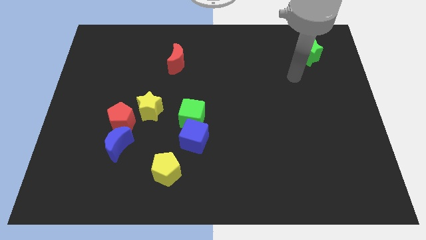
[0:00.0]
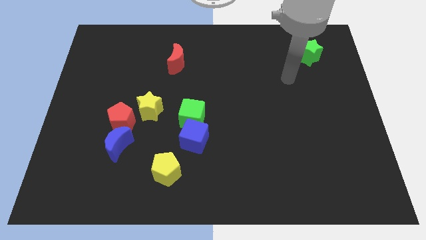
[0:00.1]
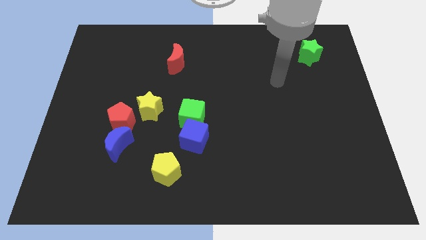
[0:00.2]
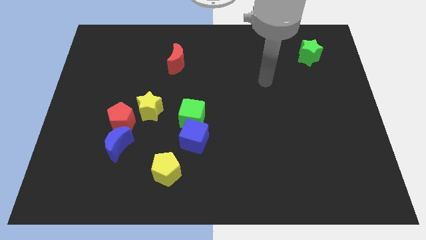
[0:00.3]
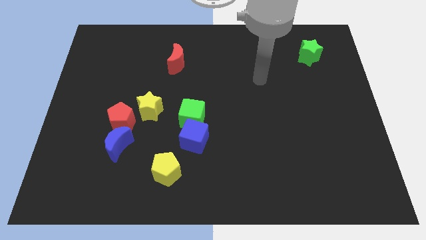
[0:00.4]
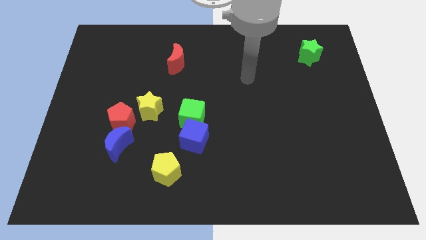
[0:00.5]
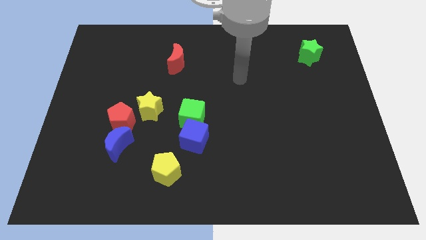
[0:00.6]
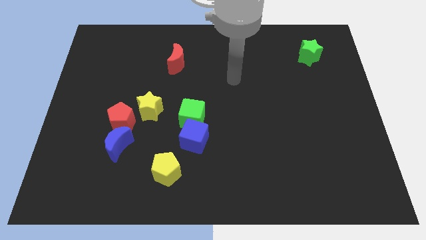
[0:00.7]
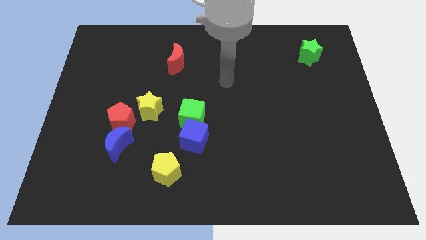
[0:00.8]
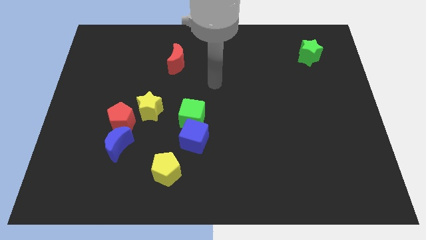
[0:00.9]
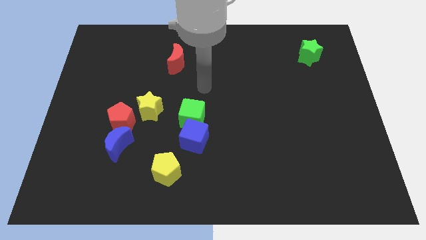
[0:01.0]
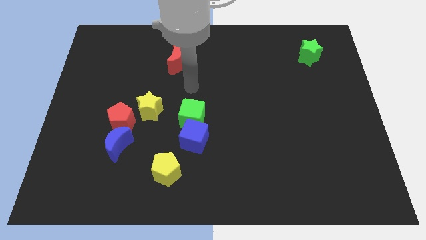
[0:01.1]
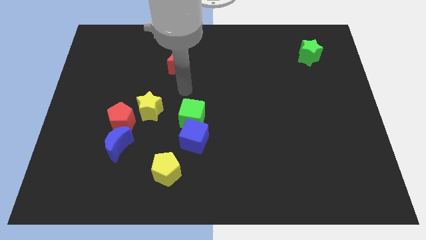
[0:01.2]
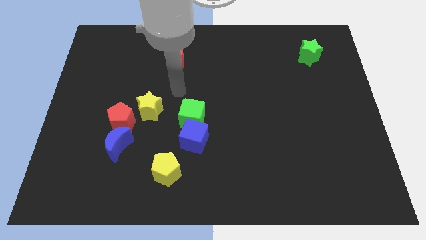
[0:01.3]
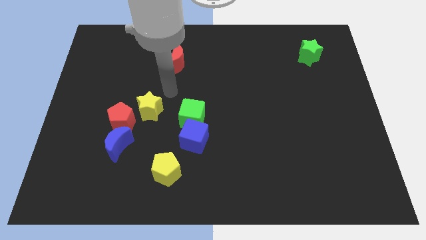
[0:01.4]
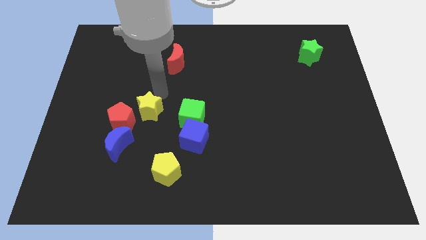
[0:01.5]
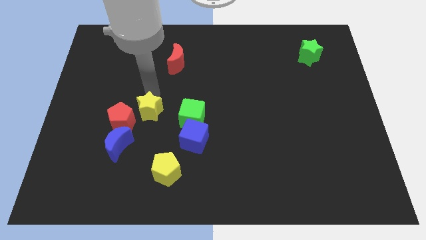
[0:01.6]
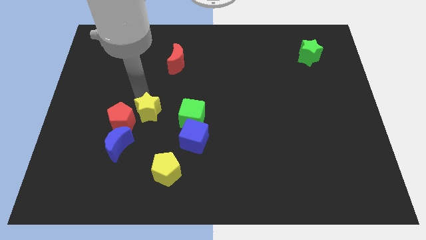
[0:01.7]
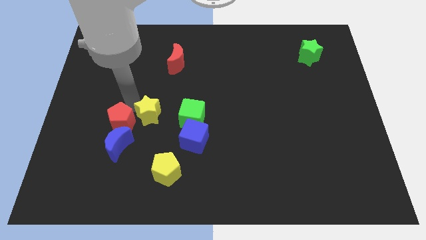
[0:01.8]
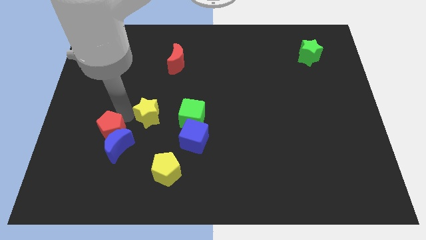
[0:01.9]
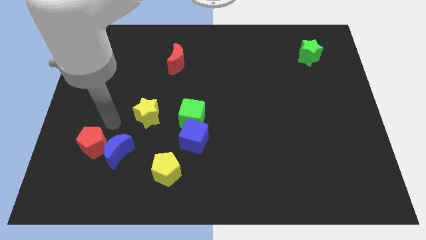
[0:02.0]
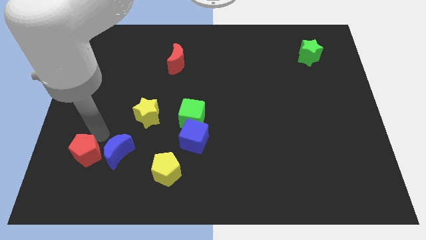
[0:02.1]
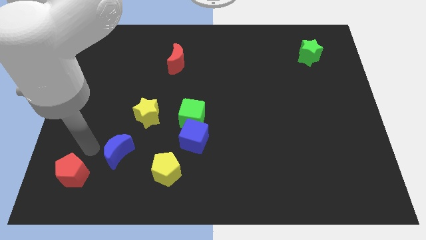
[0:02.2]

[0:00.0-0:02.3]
separate the blue moon from the red pentagon

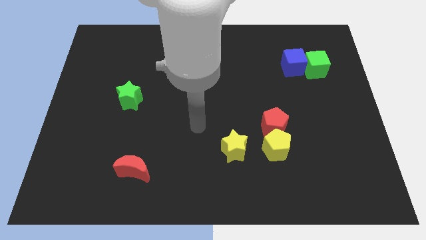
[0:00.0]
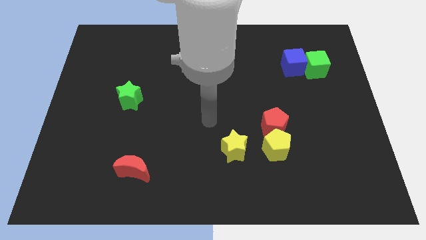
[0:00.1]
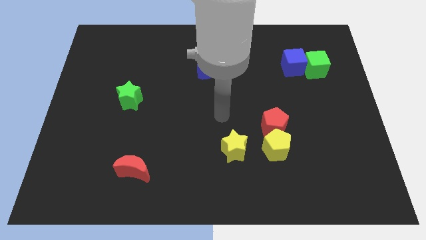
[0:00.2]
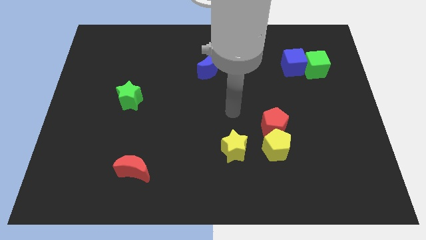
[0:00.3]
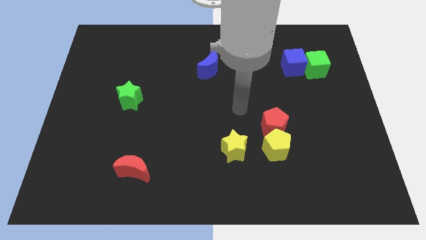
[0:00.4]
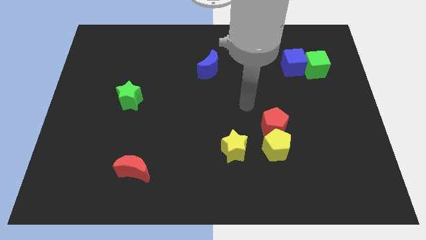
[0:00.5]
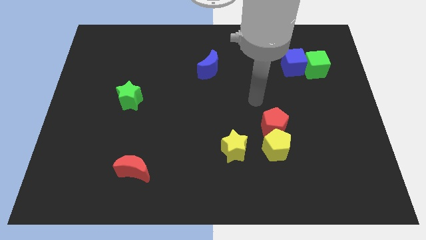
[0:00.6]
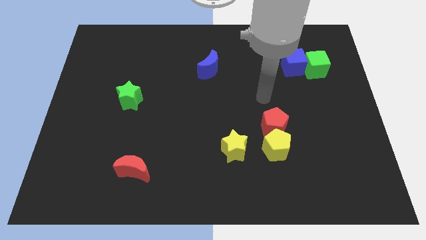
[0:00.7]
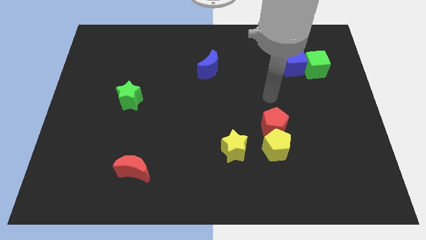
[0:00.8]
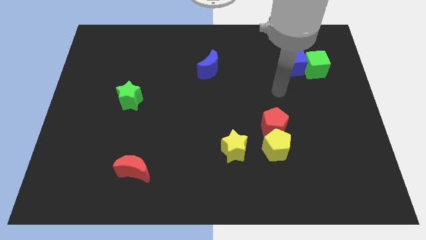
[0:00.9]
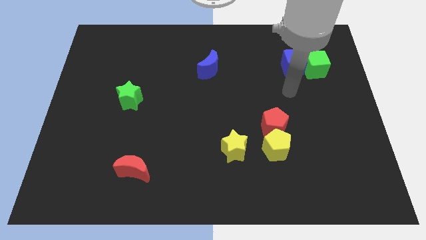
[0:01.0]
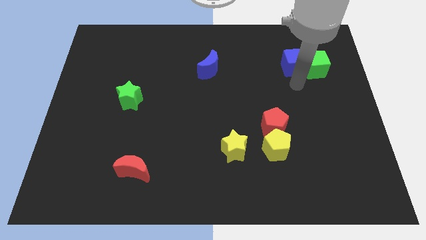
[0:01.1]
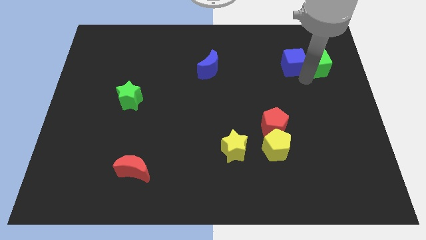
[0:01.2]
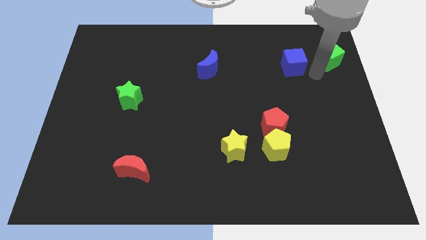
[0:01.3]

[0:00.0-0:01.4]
pull the blue cube apart from the green cube

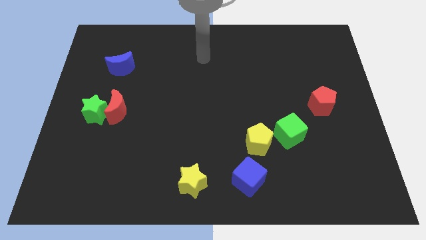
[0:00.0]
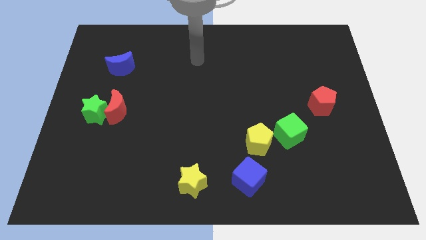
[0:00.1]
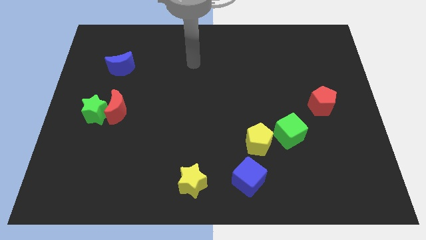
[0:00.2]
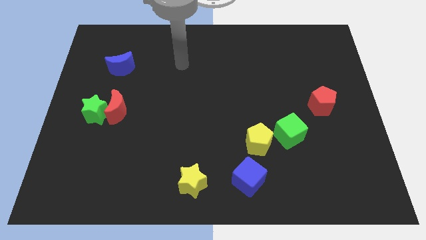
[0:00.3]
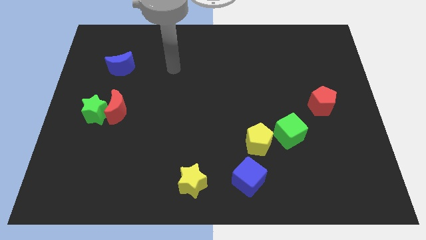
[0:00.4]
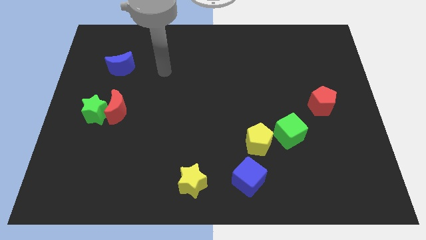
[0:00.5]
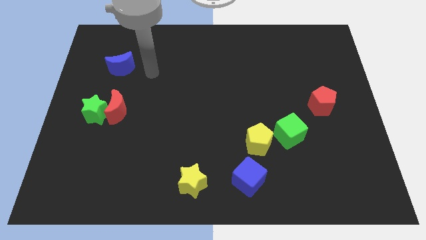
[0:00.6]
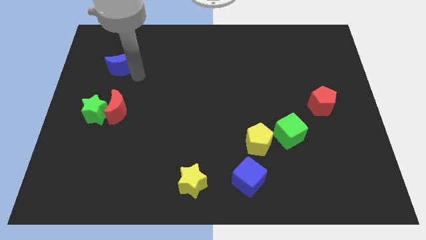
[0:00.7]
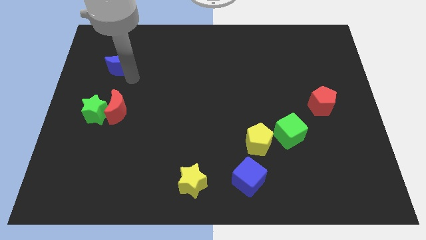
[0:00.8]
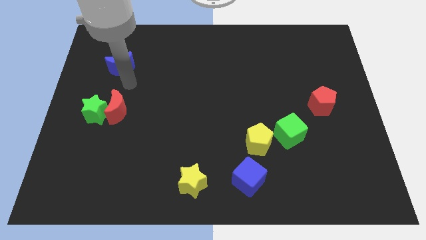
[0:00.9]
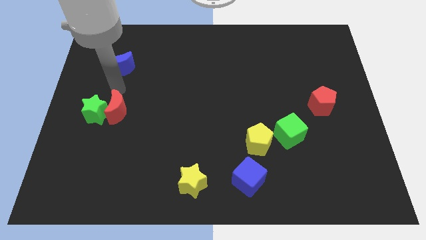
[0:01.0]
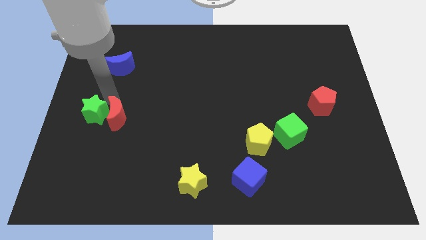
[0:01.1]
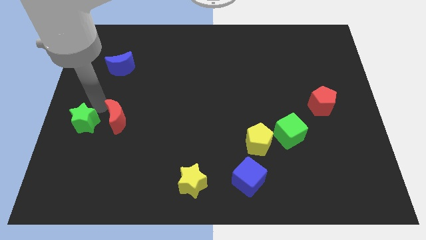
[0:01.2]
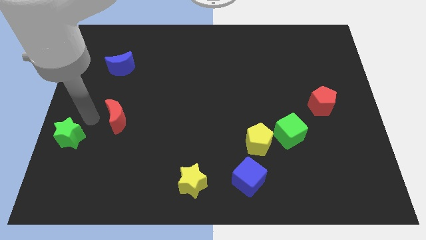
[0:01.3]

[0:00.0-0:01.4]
move the red moon away from the green star

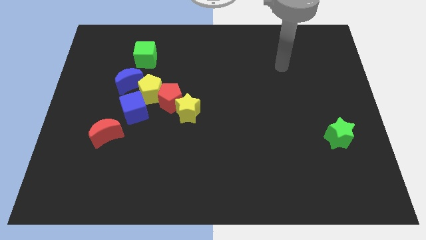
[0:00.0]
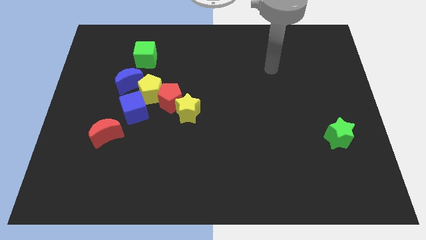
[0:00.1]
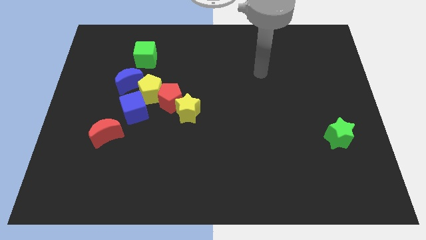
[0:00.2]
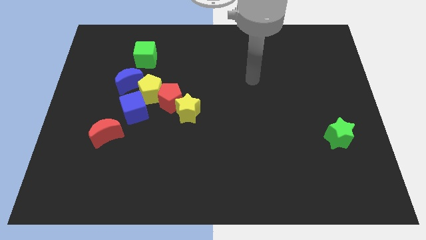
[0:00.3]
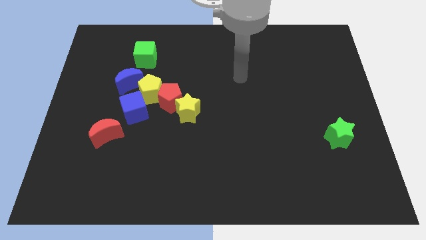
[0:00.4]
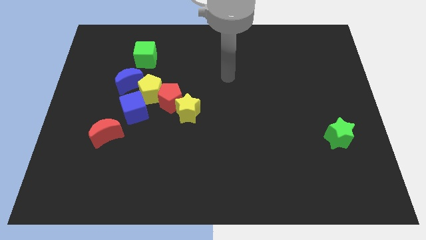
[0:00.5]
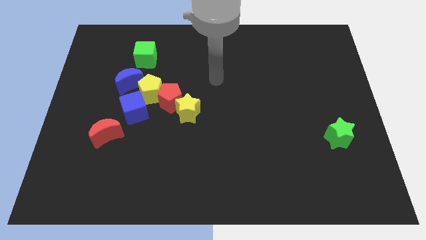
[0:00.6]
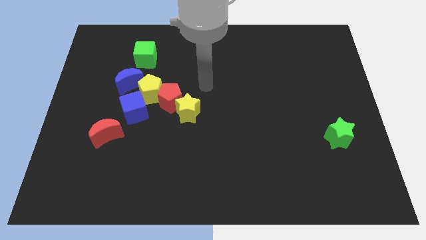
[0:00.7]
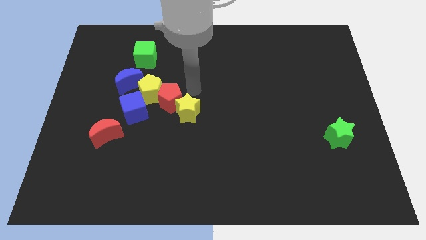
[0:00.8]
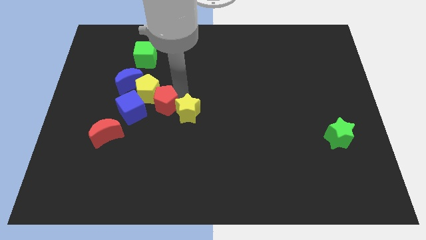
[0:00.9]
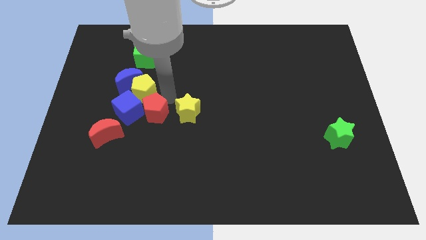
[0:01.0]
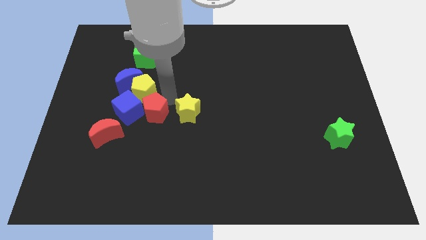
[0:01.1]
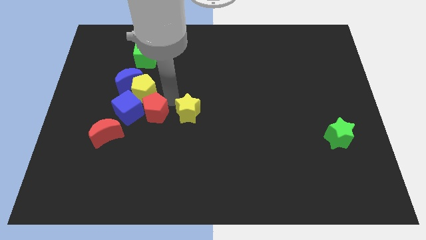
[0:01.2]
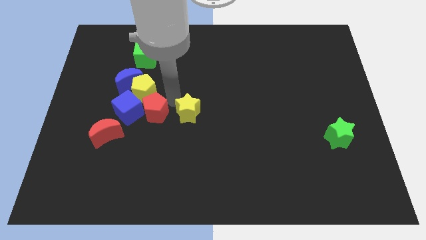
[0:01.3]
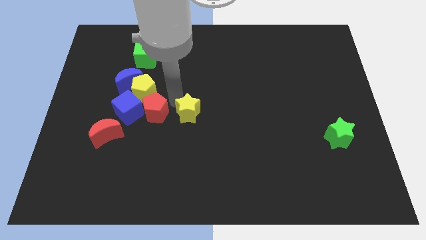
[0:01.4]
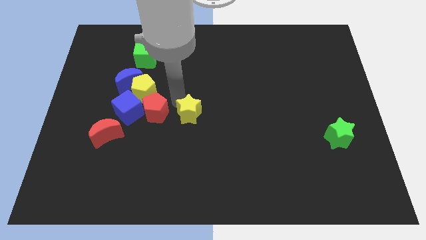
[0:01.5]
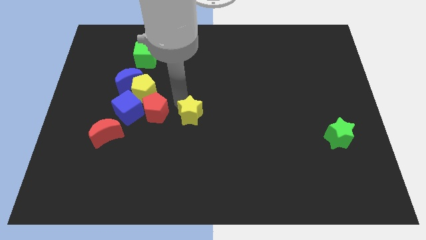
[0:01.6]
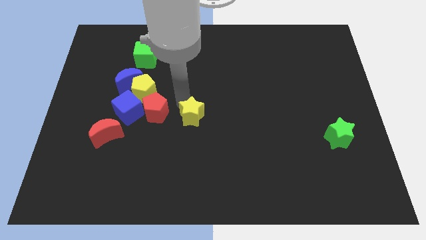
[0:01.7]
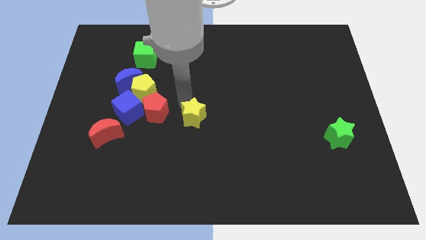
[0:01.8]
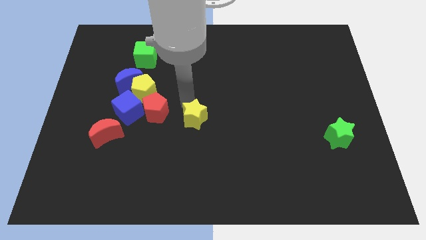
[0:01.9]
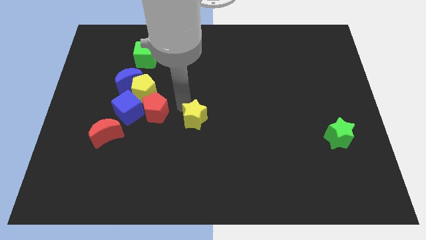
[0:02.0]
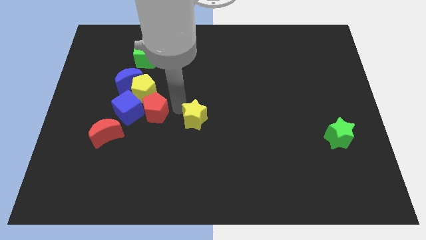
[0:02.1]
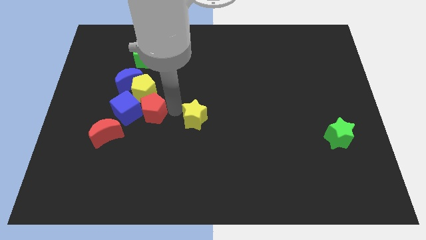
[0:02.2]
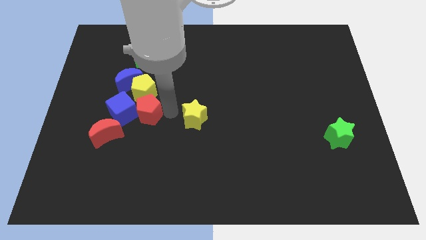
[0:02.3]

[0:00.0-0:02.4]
pull the yellow star apart from the red pentagon

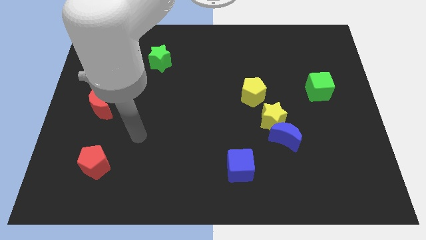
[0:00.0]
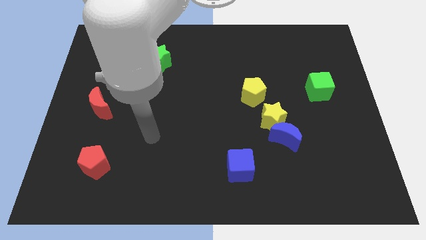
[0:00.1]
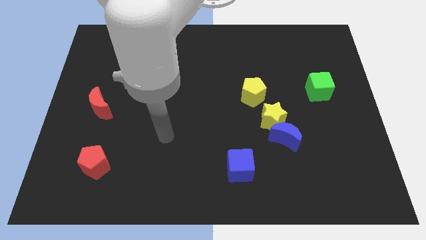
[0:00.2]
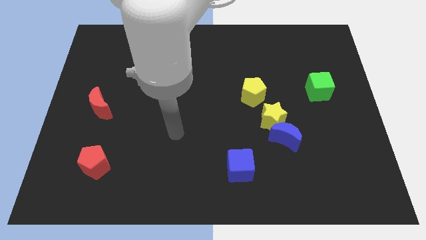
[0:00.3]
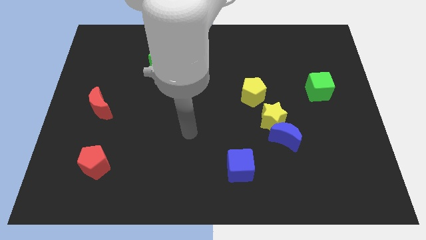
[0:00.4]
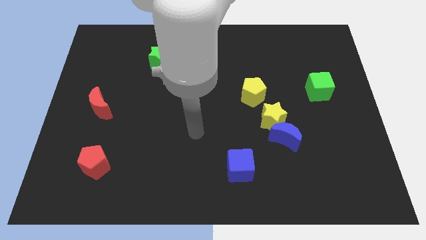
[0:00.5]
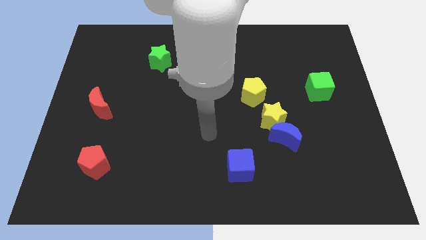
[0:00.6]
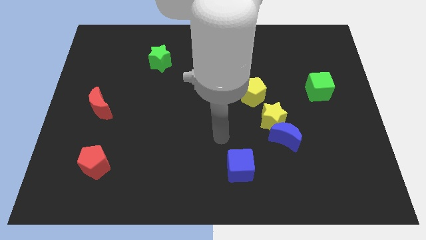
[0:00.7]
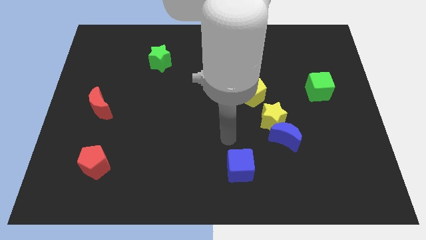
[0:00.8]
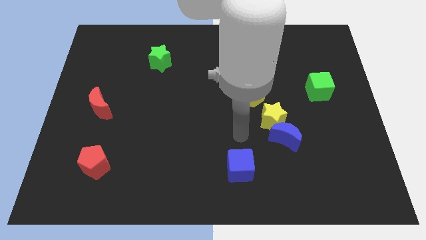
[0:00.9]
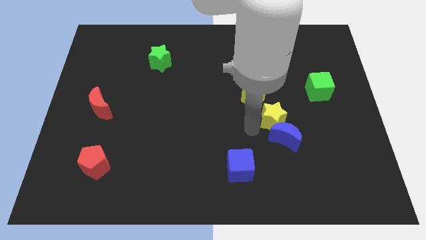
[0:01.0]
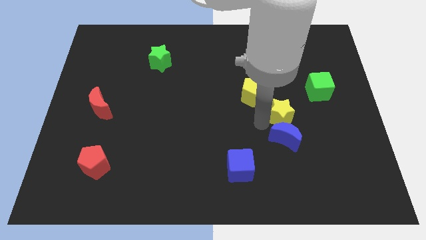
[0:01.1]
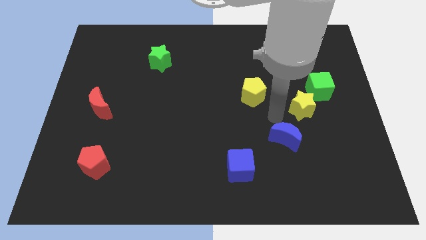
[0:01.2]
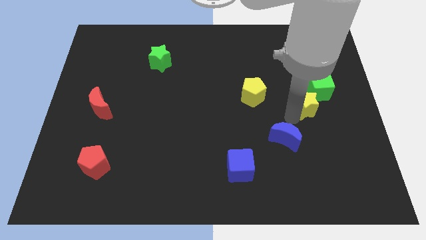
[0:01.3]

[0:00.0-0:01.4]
separate the blue moon from the yellow star

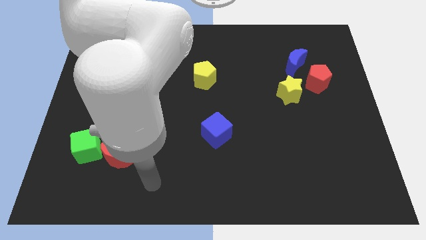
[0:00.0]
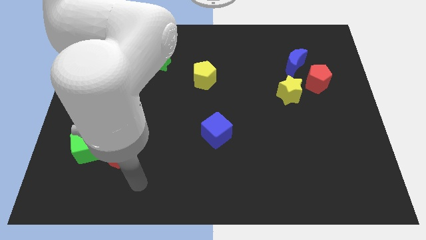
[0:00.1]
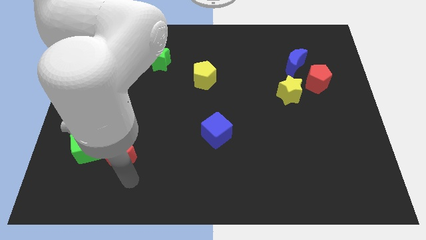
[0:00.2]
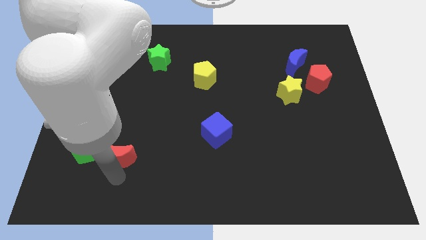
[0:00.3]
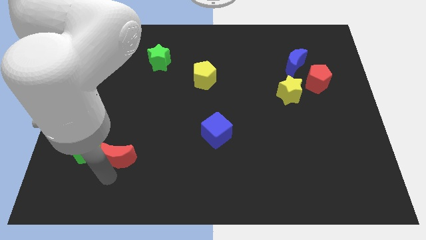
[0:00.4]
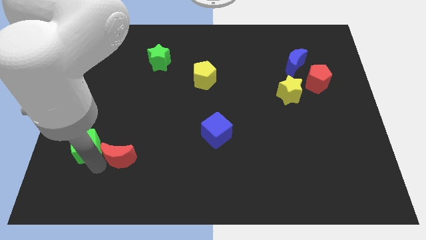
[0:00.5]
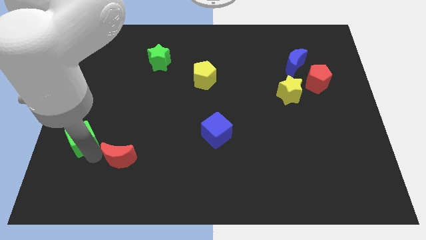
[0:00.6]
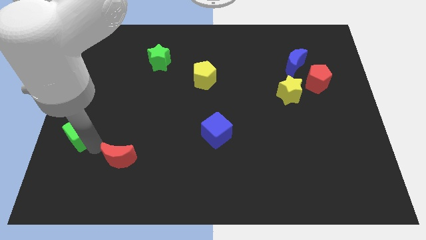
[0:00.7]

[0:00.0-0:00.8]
pull the red moon apart from the green cube
